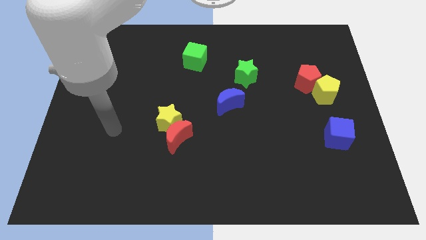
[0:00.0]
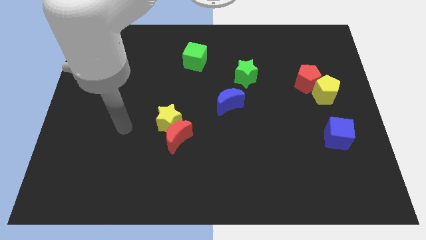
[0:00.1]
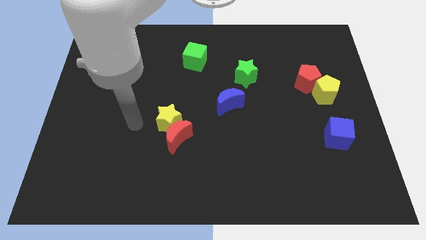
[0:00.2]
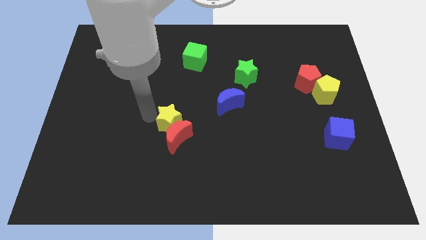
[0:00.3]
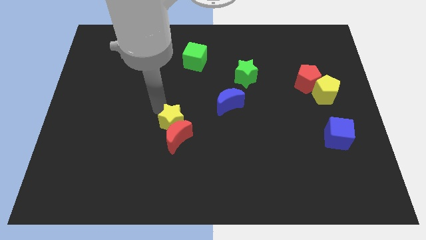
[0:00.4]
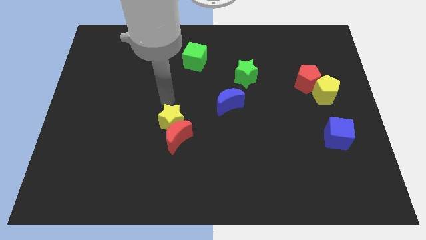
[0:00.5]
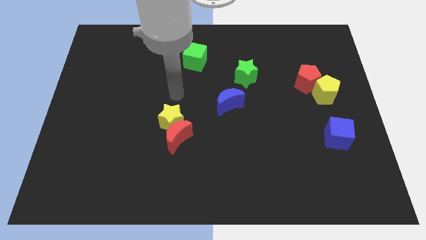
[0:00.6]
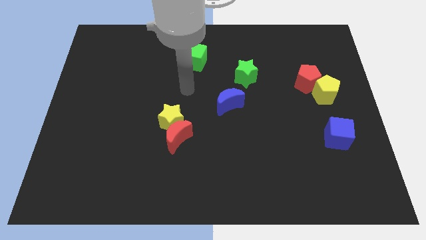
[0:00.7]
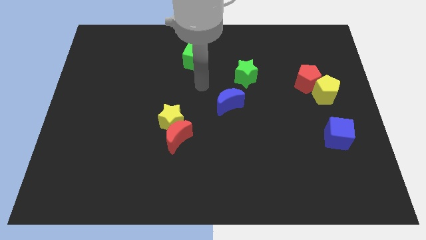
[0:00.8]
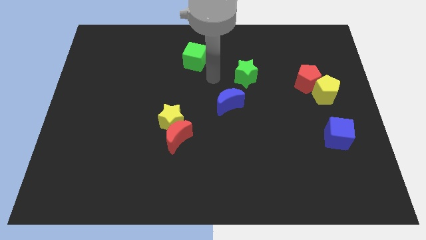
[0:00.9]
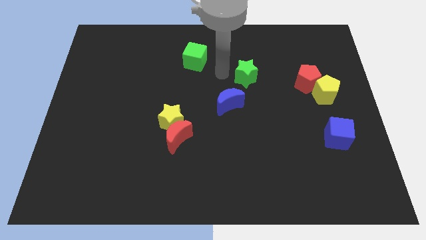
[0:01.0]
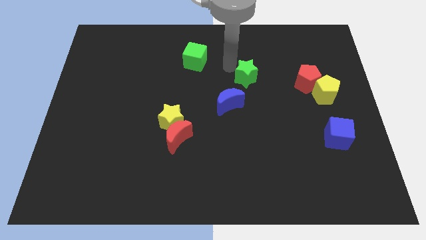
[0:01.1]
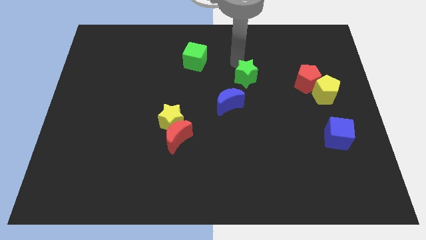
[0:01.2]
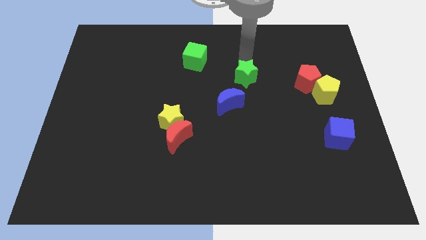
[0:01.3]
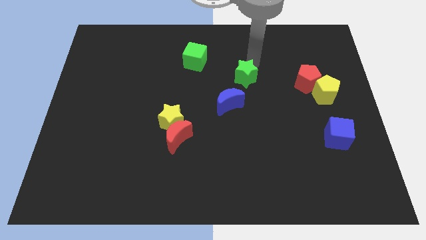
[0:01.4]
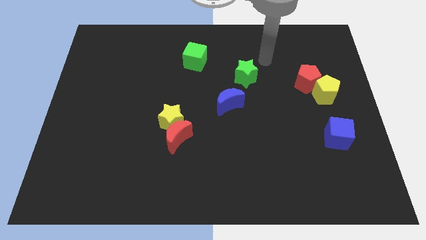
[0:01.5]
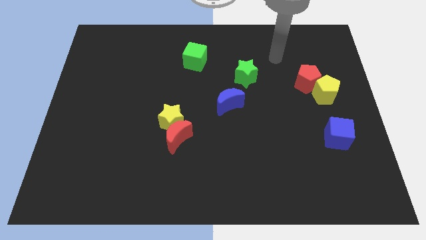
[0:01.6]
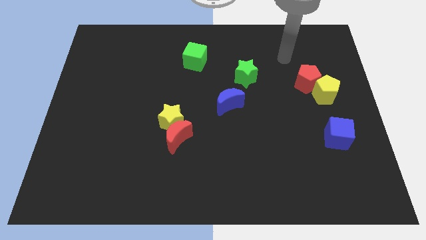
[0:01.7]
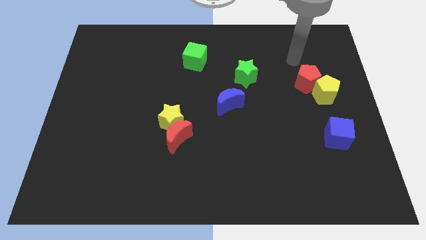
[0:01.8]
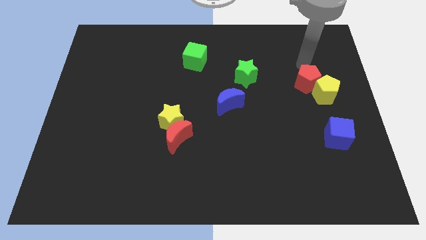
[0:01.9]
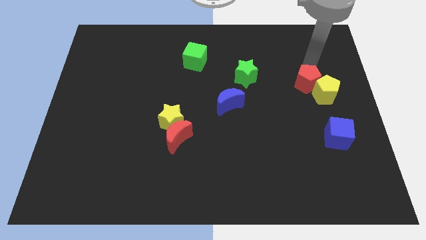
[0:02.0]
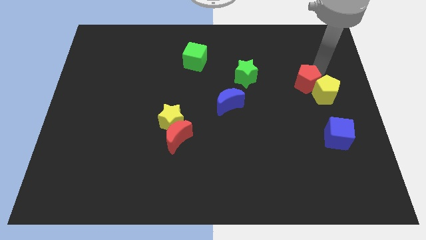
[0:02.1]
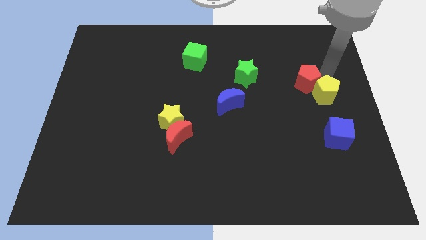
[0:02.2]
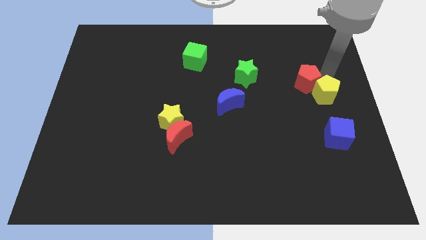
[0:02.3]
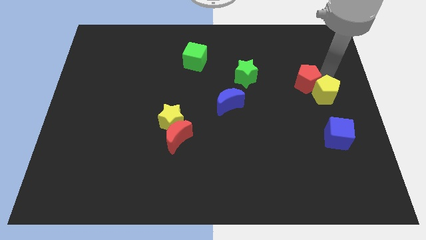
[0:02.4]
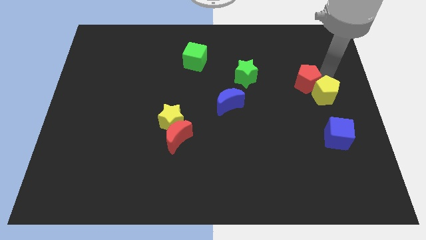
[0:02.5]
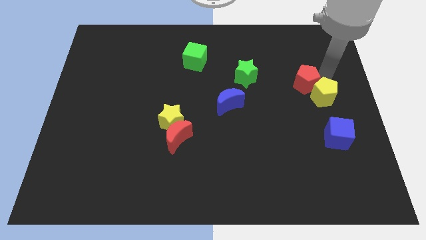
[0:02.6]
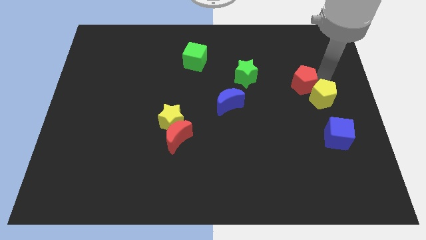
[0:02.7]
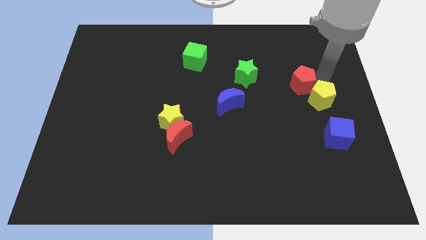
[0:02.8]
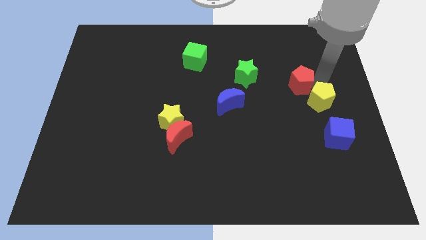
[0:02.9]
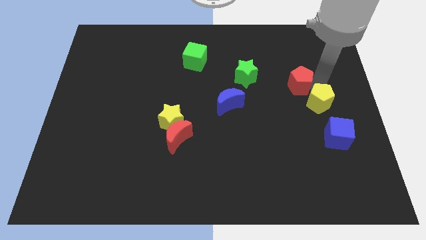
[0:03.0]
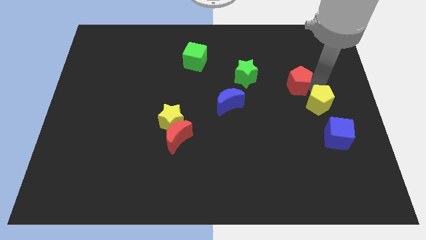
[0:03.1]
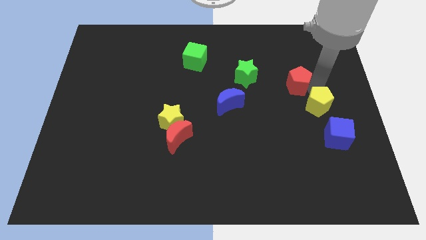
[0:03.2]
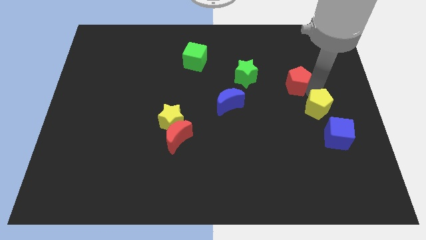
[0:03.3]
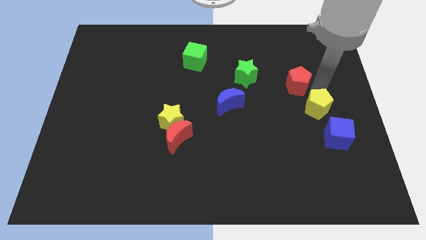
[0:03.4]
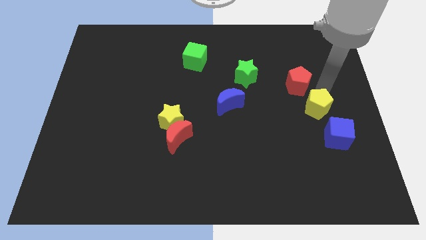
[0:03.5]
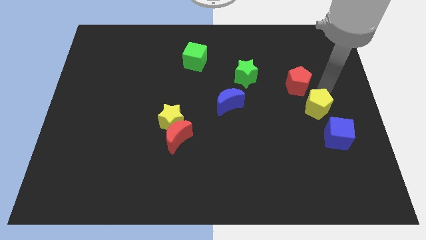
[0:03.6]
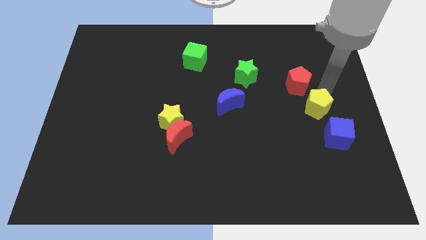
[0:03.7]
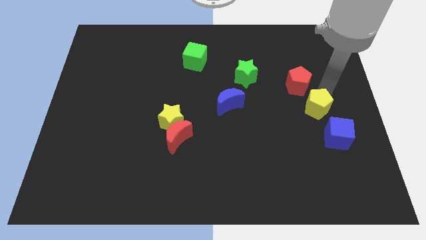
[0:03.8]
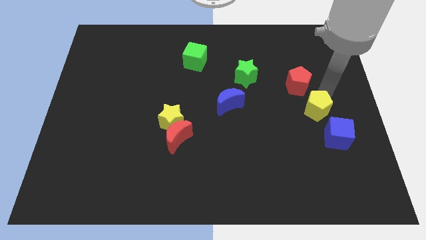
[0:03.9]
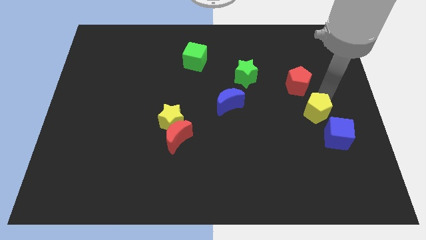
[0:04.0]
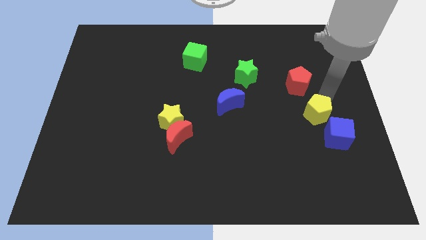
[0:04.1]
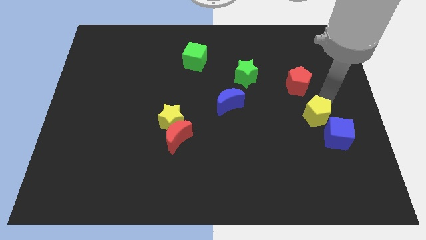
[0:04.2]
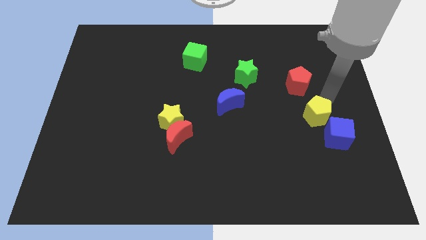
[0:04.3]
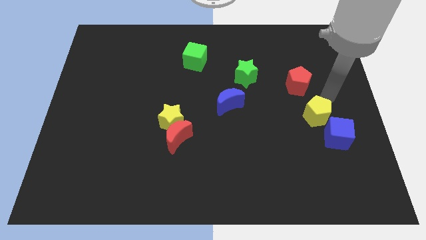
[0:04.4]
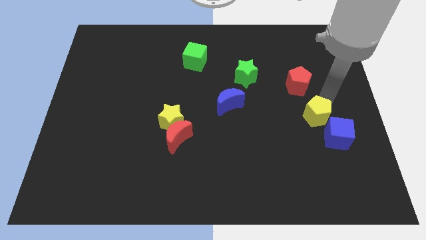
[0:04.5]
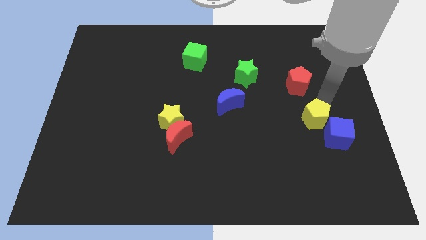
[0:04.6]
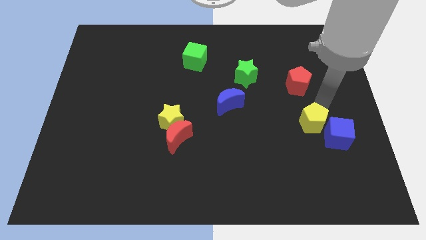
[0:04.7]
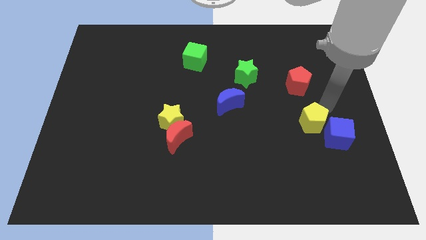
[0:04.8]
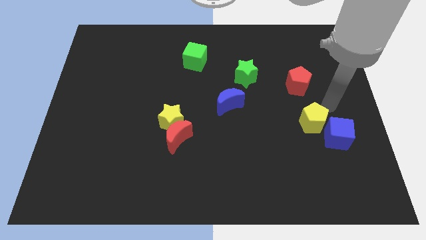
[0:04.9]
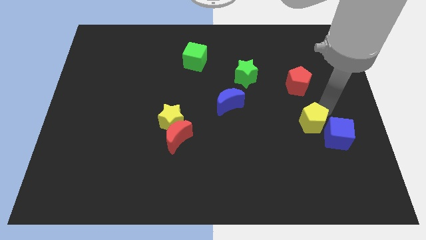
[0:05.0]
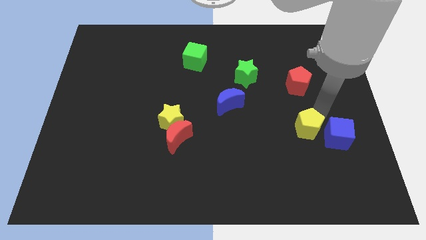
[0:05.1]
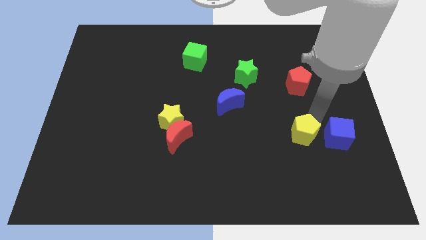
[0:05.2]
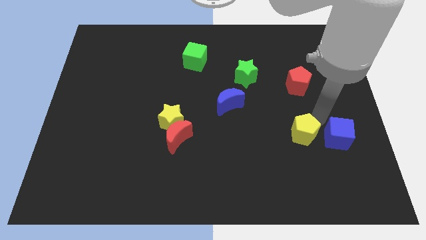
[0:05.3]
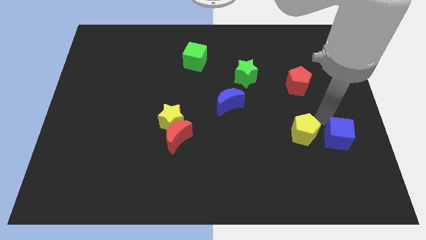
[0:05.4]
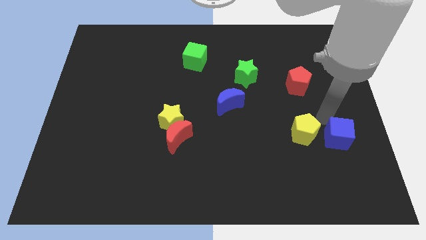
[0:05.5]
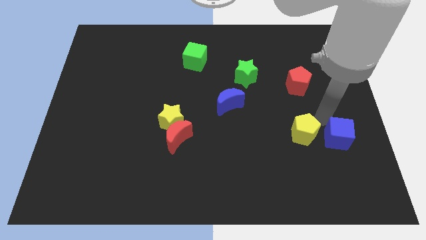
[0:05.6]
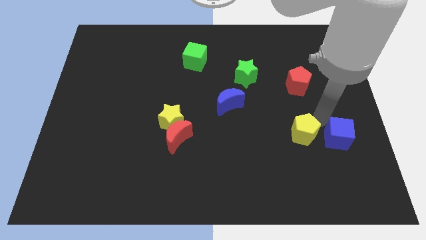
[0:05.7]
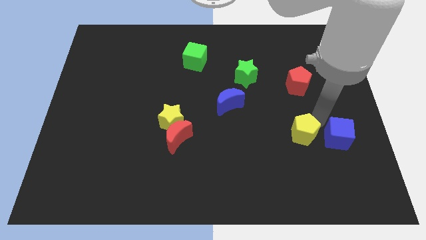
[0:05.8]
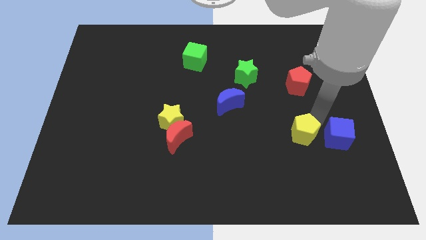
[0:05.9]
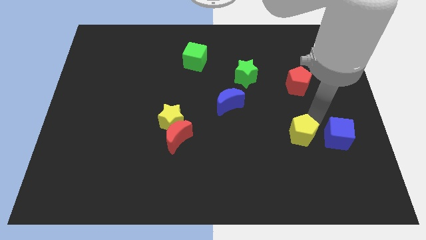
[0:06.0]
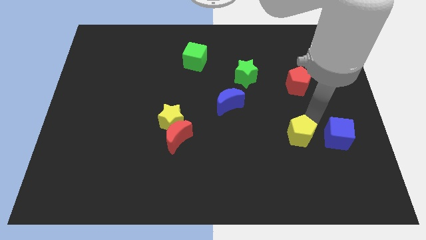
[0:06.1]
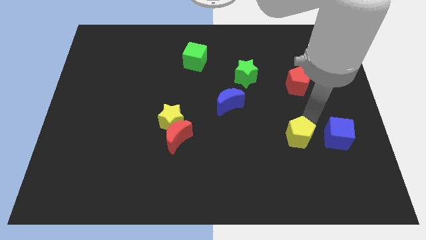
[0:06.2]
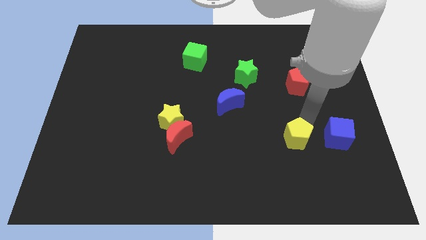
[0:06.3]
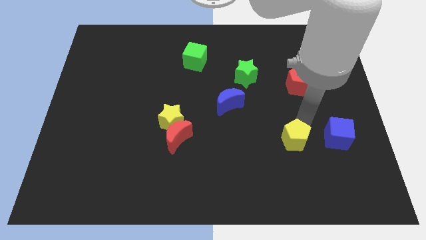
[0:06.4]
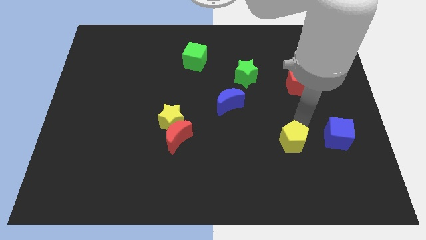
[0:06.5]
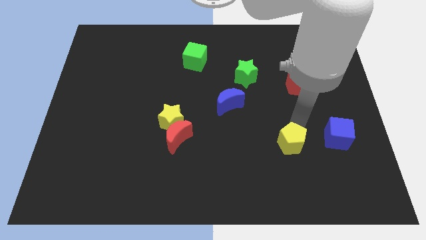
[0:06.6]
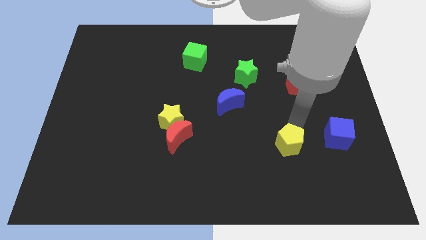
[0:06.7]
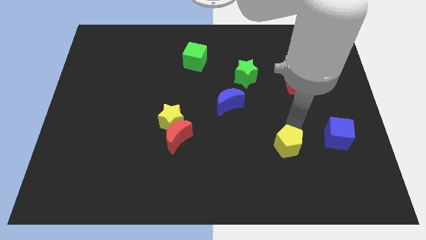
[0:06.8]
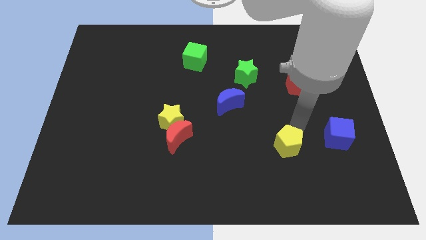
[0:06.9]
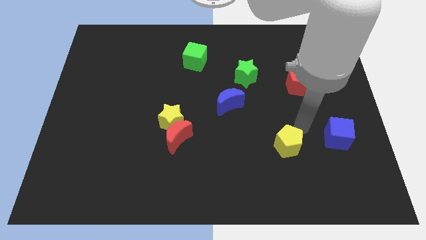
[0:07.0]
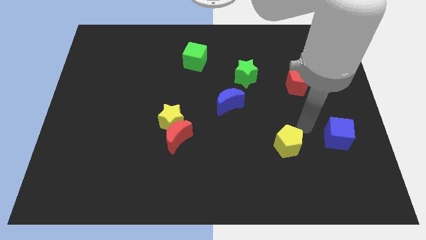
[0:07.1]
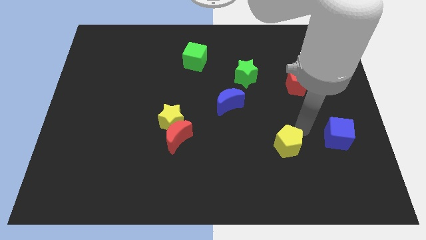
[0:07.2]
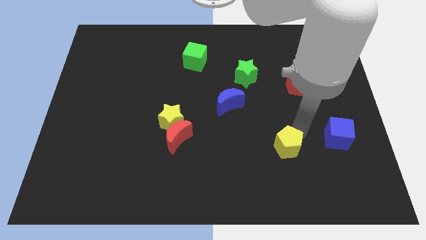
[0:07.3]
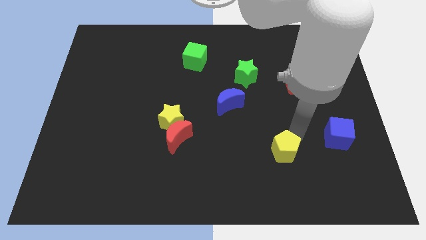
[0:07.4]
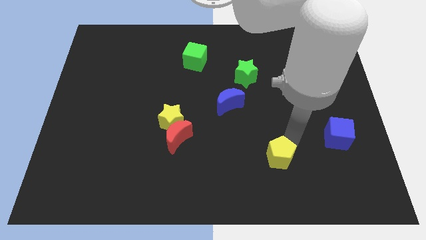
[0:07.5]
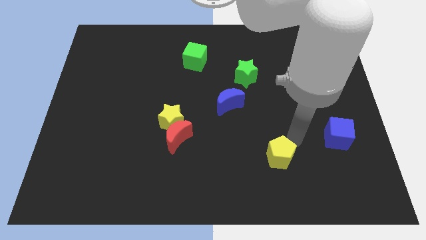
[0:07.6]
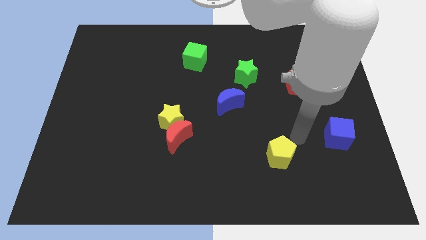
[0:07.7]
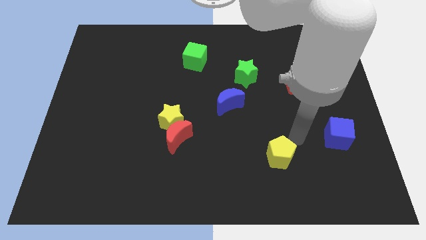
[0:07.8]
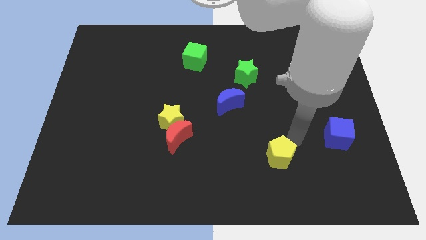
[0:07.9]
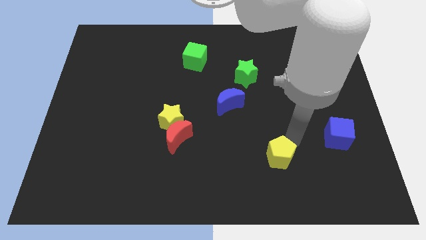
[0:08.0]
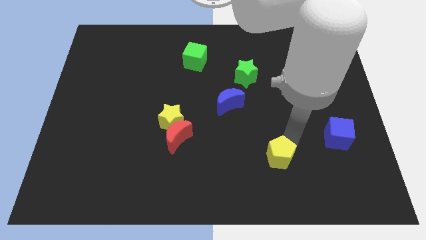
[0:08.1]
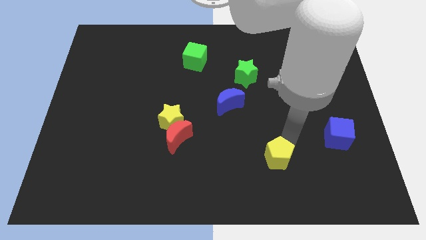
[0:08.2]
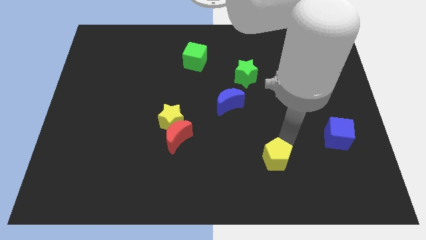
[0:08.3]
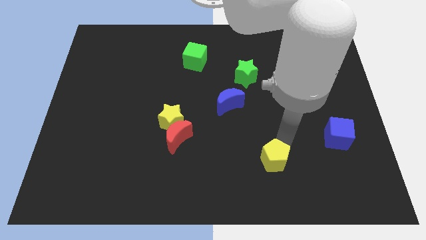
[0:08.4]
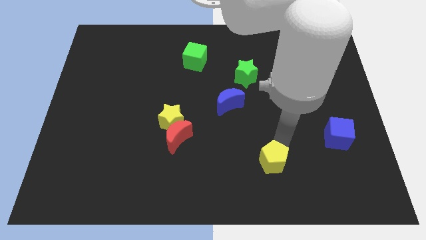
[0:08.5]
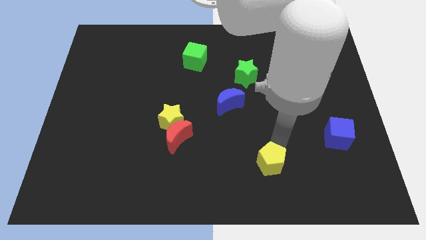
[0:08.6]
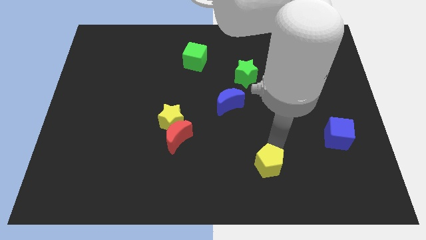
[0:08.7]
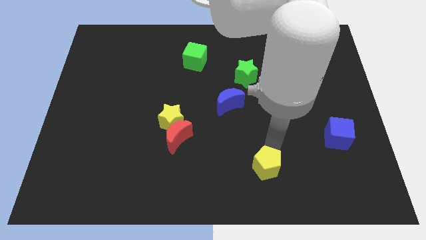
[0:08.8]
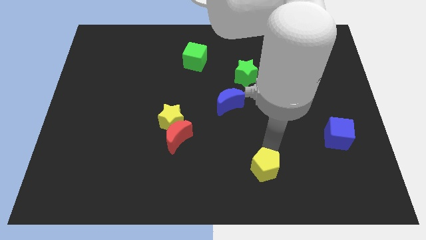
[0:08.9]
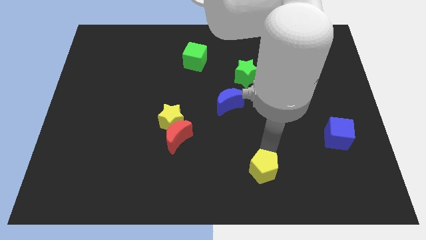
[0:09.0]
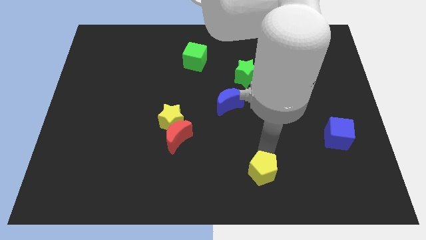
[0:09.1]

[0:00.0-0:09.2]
push the yellow pentagon to the bottom side
